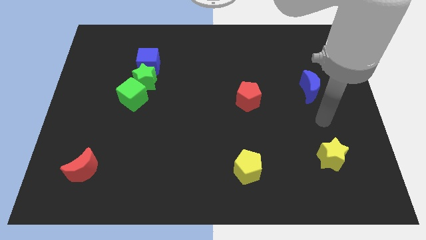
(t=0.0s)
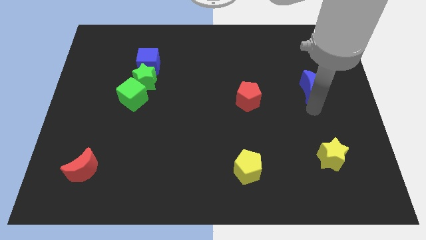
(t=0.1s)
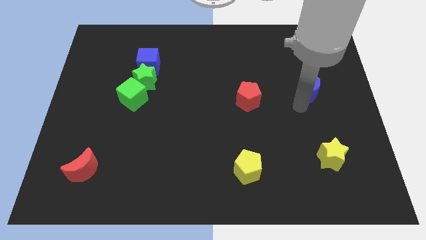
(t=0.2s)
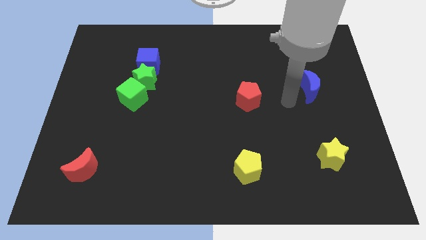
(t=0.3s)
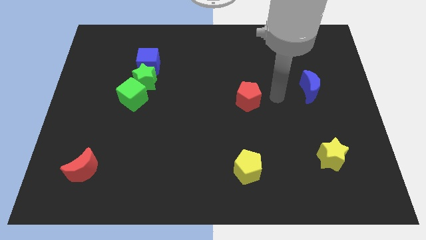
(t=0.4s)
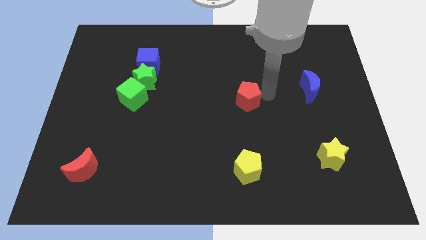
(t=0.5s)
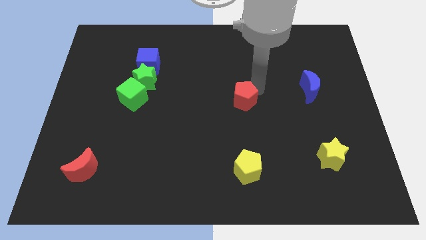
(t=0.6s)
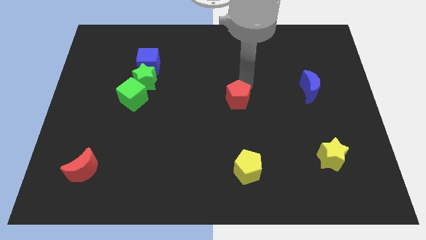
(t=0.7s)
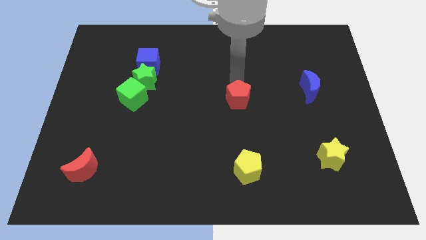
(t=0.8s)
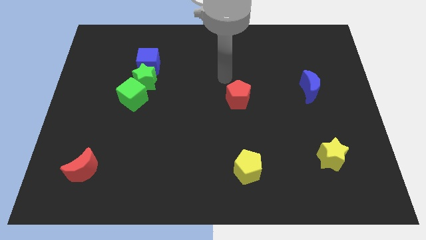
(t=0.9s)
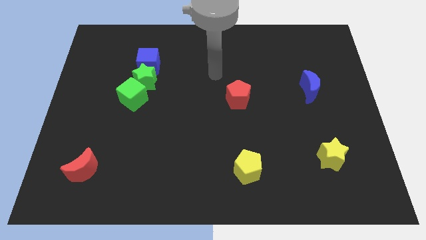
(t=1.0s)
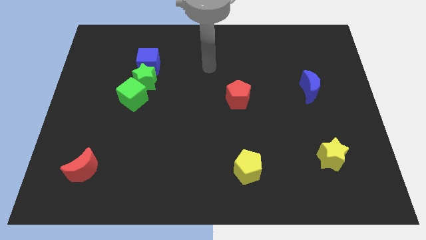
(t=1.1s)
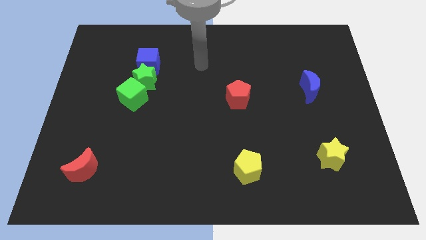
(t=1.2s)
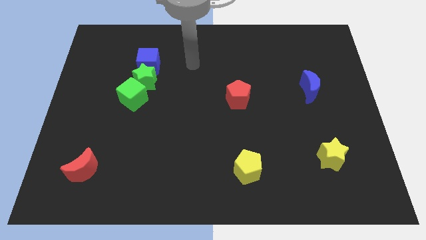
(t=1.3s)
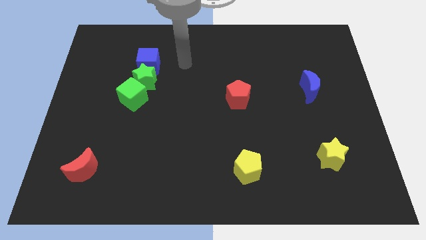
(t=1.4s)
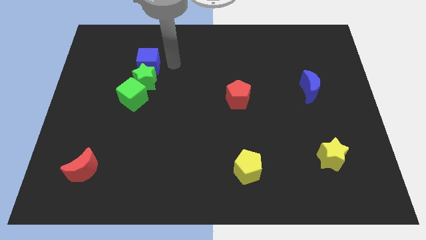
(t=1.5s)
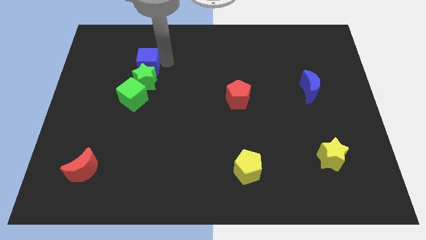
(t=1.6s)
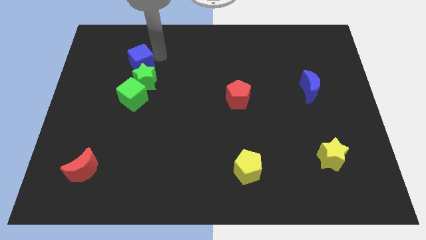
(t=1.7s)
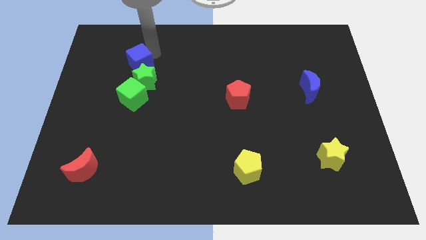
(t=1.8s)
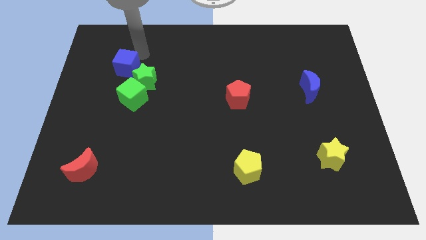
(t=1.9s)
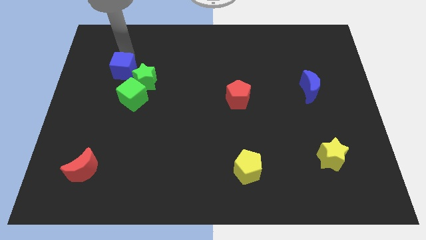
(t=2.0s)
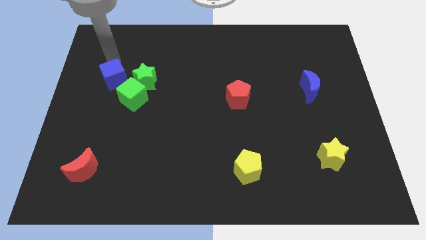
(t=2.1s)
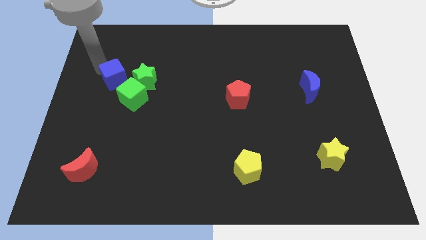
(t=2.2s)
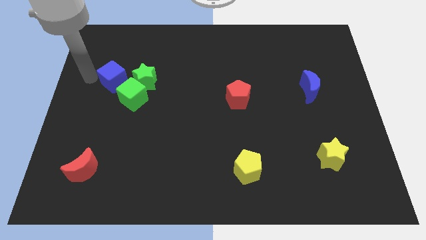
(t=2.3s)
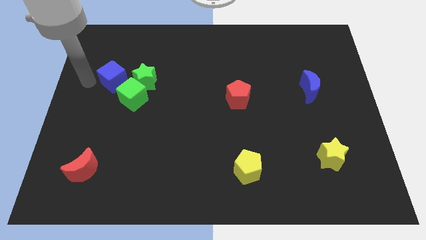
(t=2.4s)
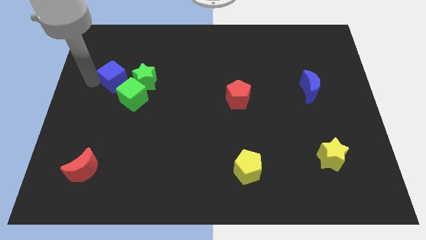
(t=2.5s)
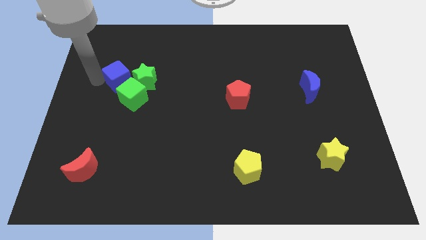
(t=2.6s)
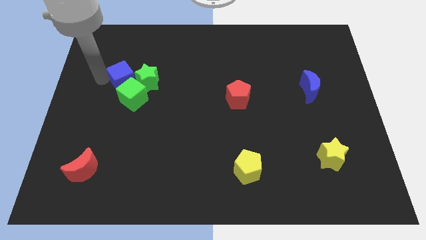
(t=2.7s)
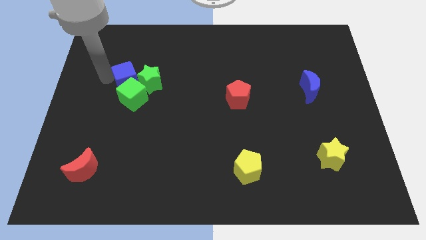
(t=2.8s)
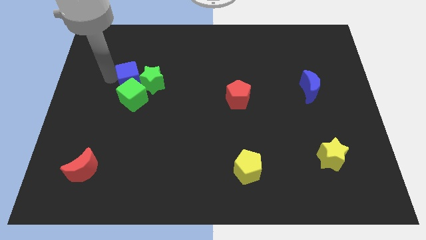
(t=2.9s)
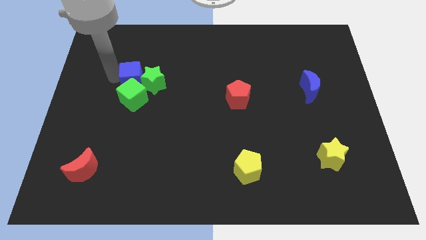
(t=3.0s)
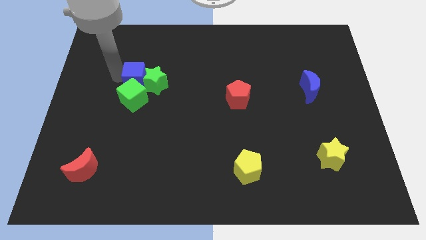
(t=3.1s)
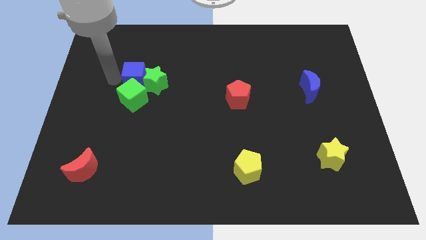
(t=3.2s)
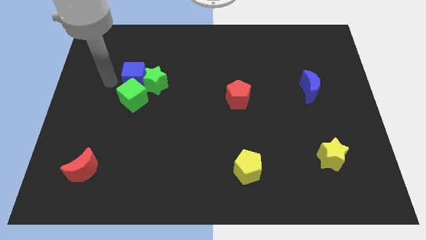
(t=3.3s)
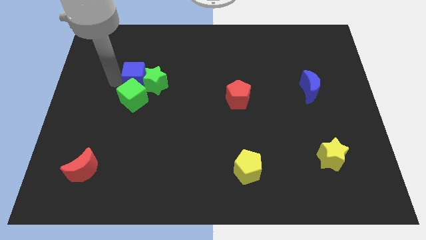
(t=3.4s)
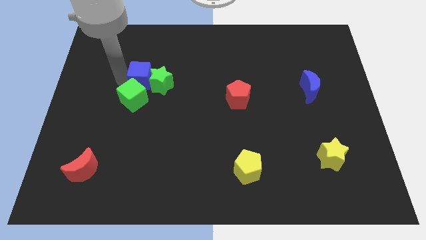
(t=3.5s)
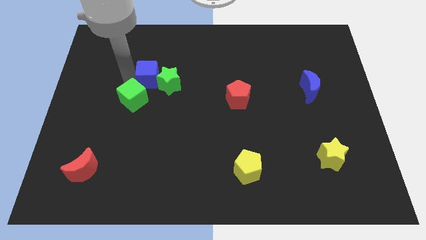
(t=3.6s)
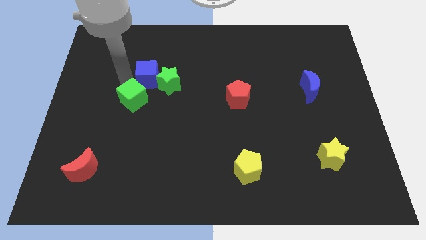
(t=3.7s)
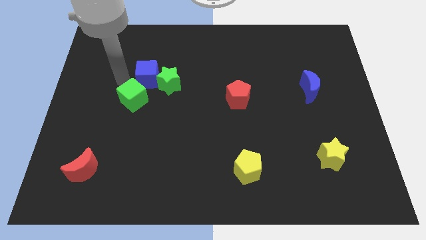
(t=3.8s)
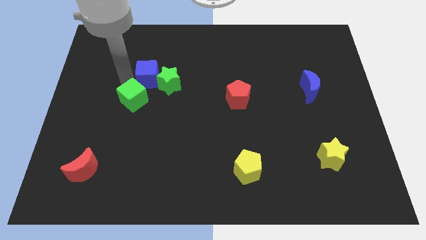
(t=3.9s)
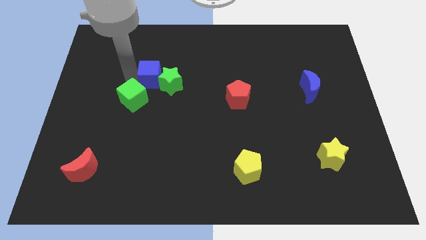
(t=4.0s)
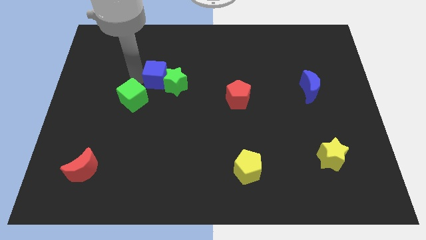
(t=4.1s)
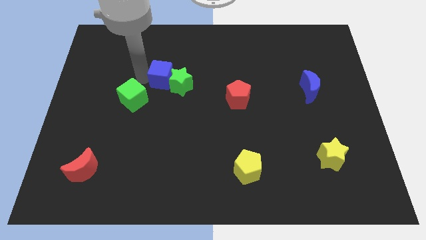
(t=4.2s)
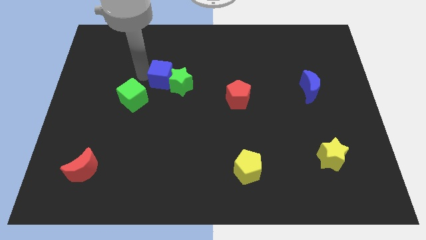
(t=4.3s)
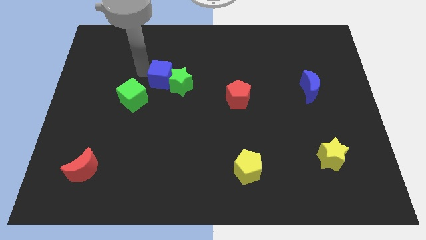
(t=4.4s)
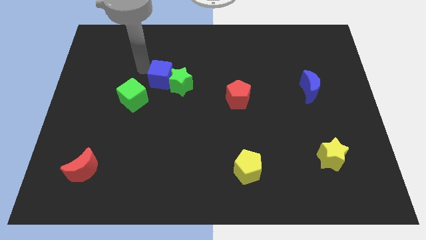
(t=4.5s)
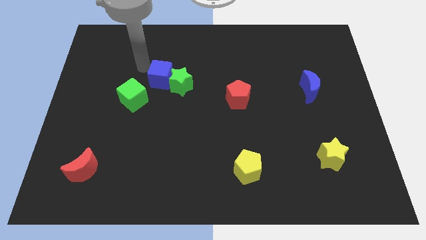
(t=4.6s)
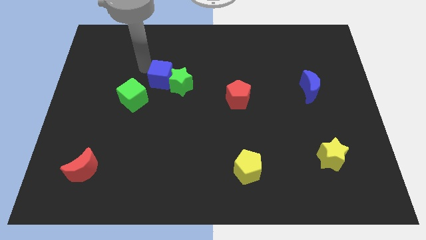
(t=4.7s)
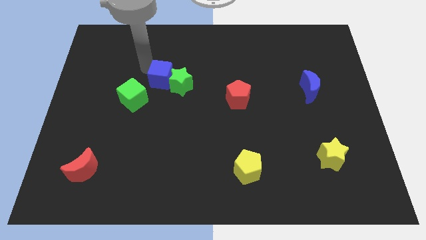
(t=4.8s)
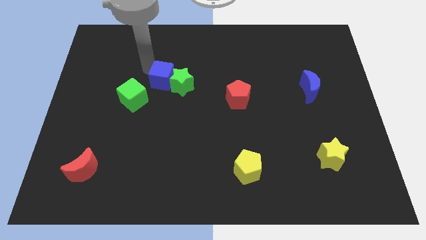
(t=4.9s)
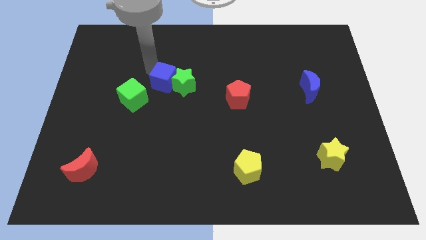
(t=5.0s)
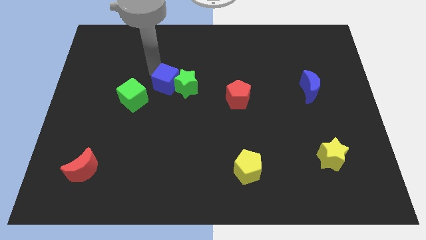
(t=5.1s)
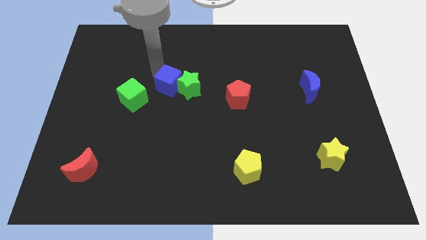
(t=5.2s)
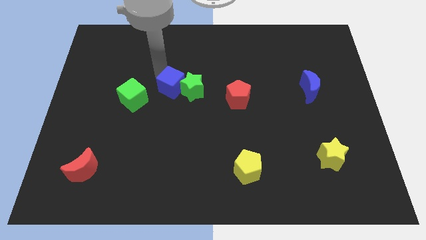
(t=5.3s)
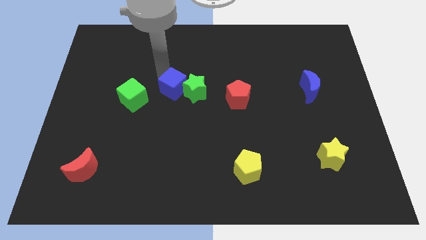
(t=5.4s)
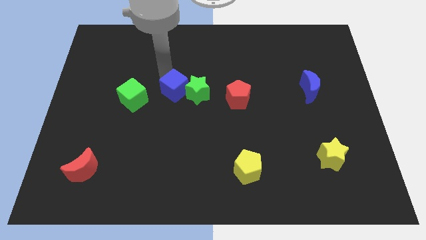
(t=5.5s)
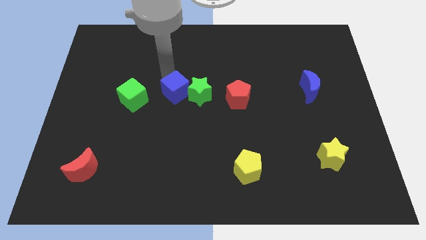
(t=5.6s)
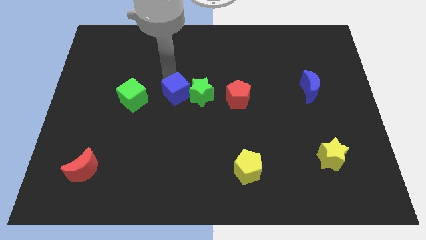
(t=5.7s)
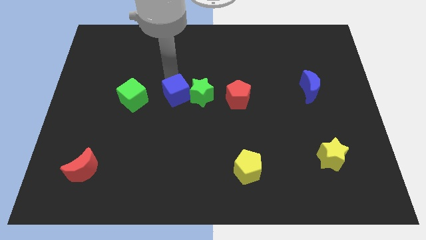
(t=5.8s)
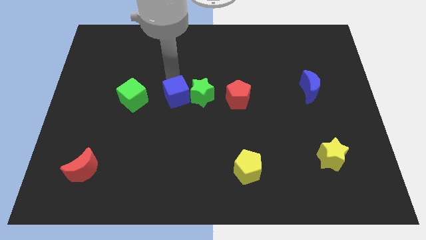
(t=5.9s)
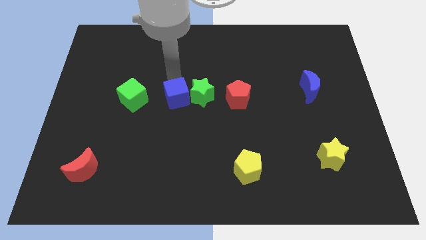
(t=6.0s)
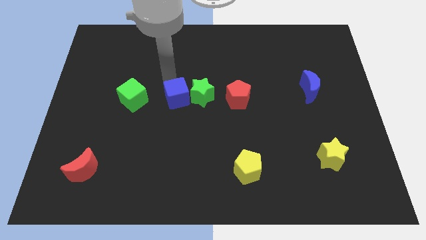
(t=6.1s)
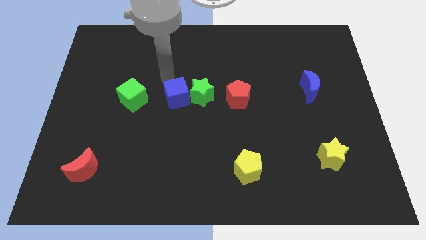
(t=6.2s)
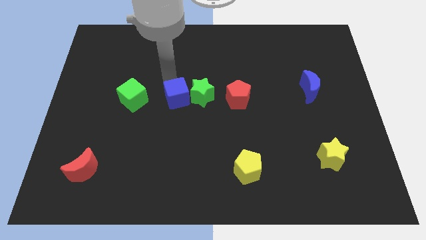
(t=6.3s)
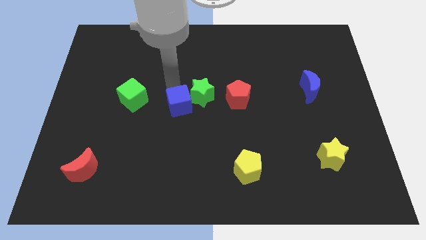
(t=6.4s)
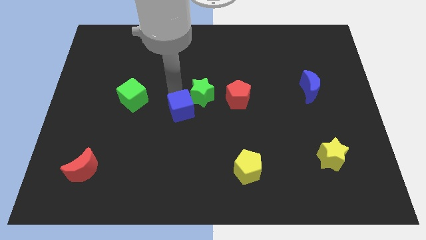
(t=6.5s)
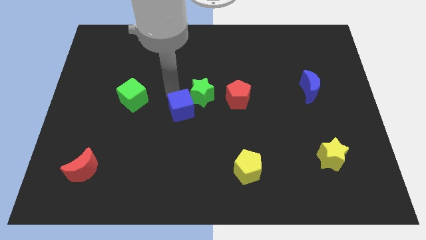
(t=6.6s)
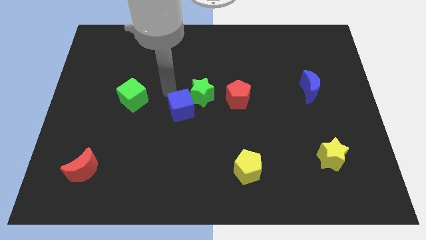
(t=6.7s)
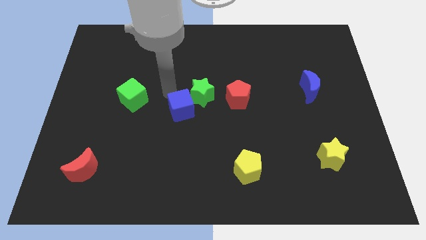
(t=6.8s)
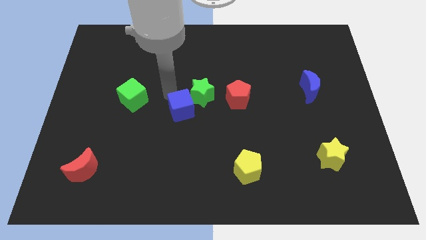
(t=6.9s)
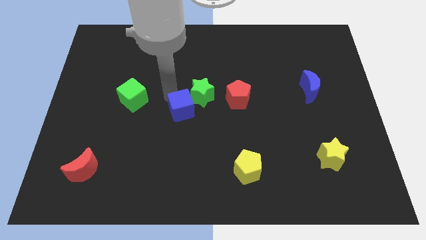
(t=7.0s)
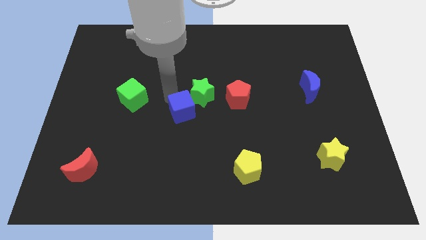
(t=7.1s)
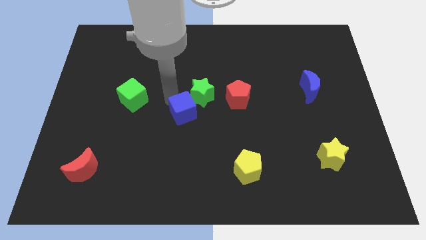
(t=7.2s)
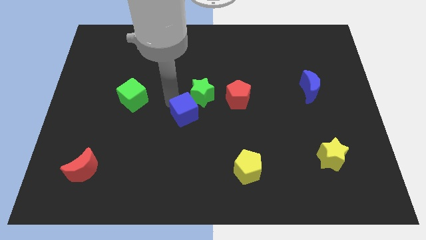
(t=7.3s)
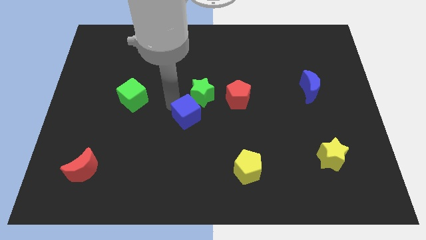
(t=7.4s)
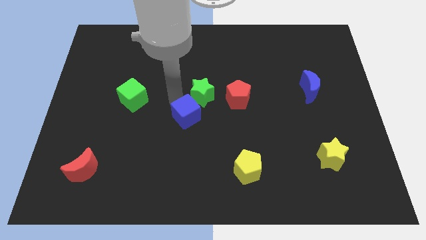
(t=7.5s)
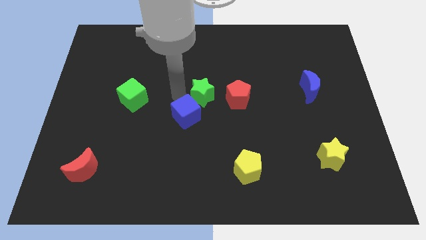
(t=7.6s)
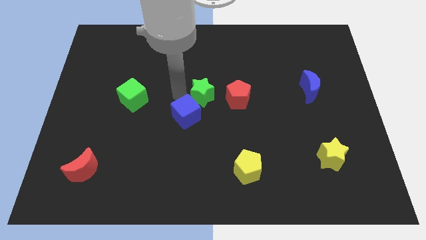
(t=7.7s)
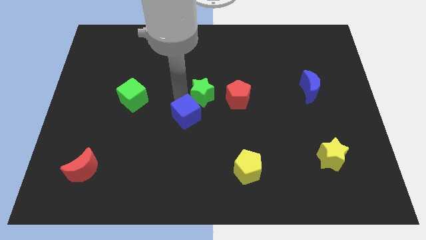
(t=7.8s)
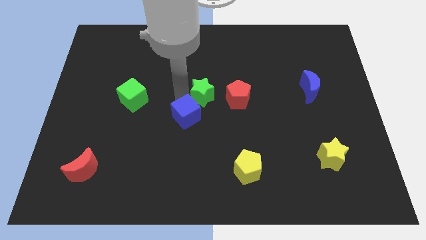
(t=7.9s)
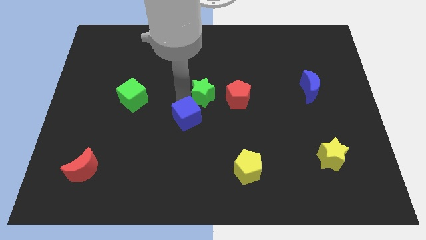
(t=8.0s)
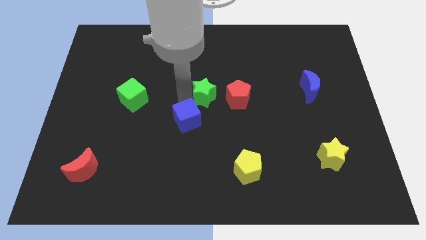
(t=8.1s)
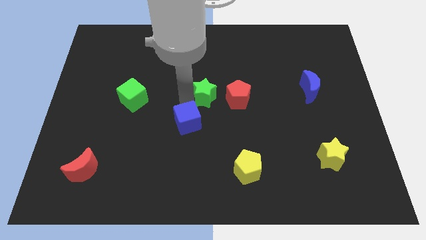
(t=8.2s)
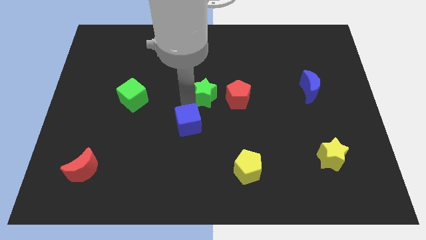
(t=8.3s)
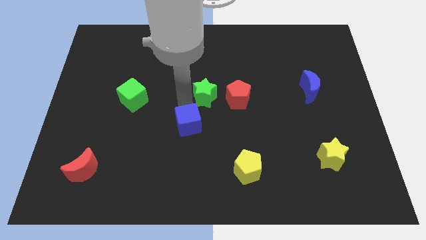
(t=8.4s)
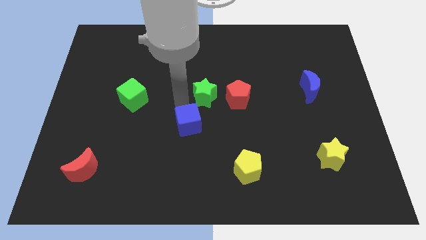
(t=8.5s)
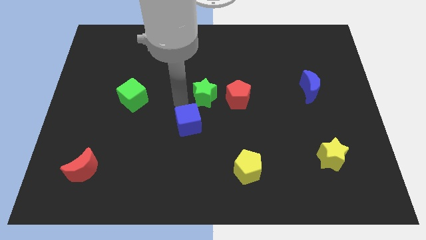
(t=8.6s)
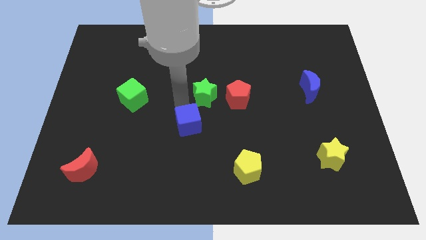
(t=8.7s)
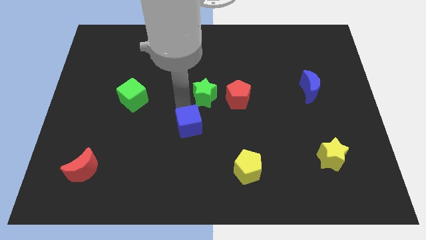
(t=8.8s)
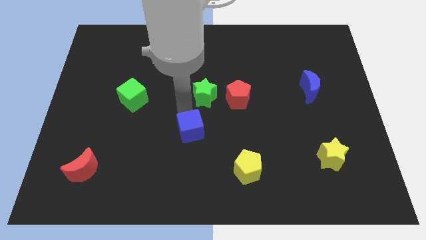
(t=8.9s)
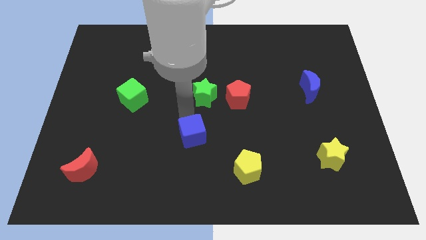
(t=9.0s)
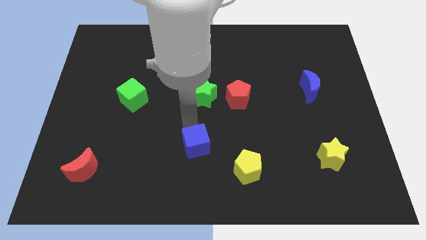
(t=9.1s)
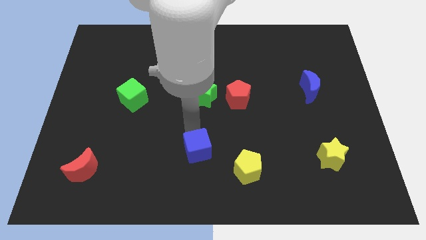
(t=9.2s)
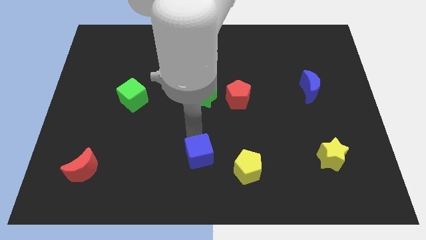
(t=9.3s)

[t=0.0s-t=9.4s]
slide the blue cube to the bottom
